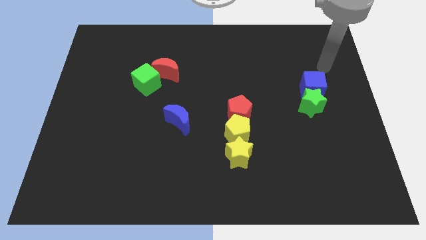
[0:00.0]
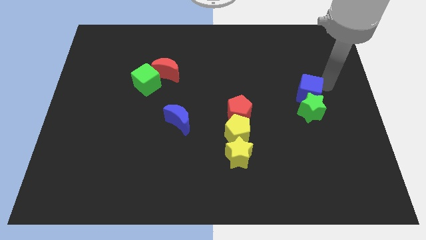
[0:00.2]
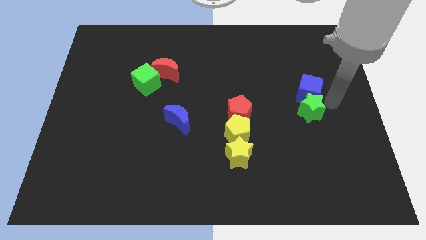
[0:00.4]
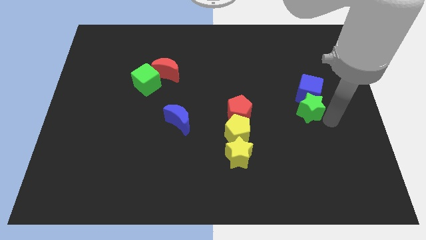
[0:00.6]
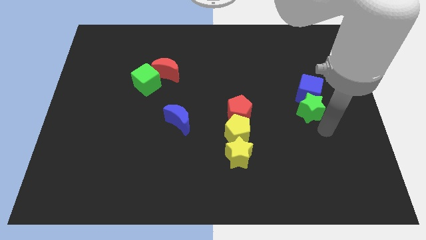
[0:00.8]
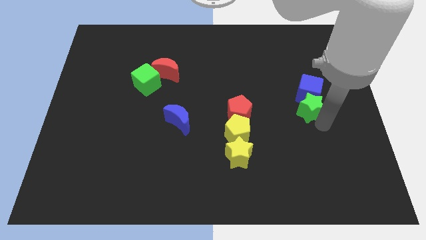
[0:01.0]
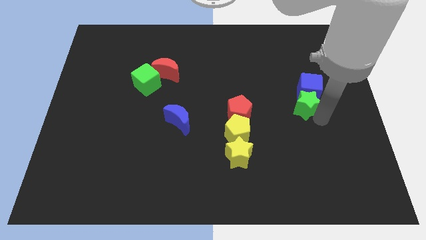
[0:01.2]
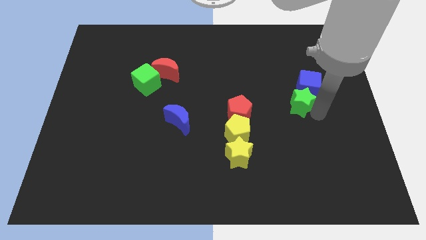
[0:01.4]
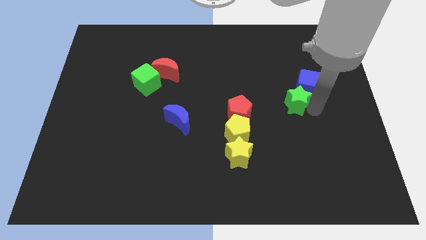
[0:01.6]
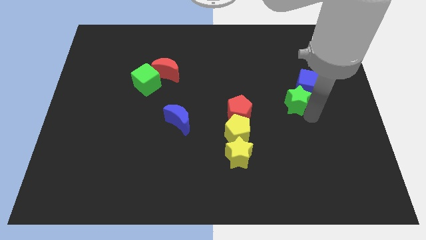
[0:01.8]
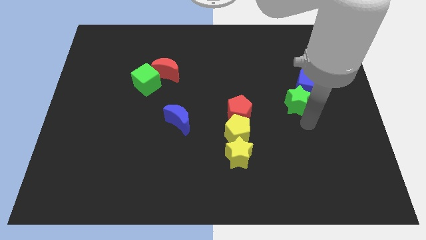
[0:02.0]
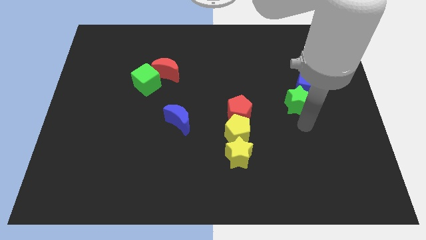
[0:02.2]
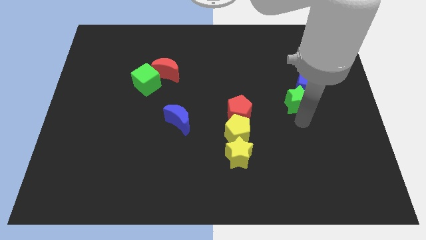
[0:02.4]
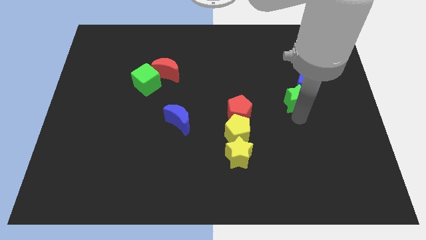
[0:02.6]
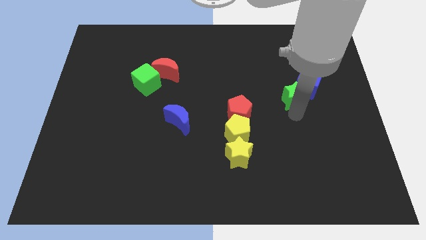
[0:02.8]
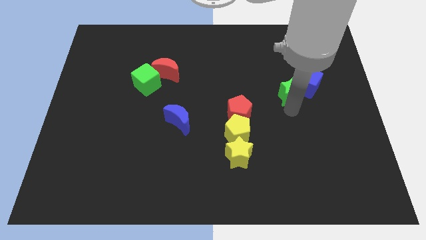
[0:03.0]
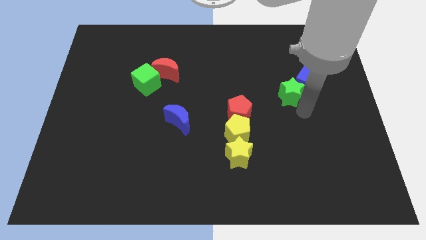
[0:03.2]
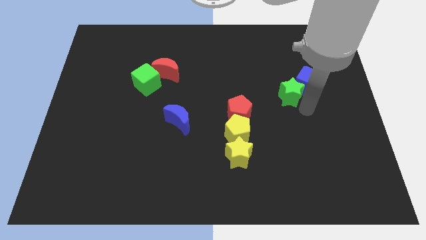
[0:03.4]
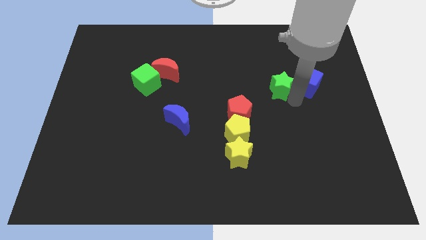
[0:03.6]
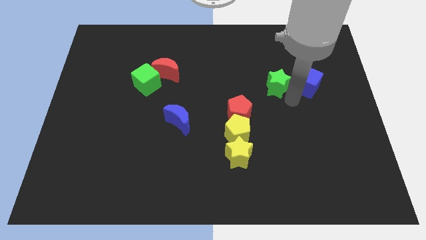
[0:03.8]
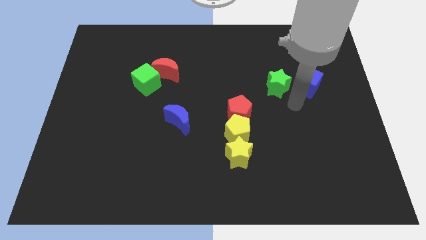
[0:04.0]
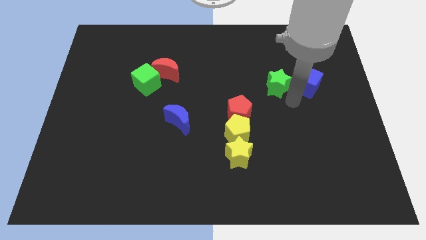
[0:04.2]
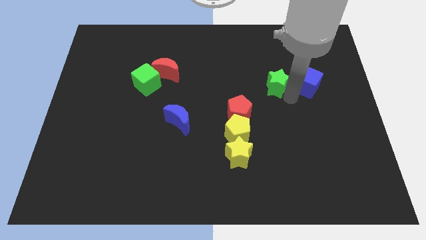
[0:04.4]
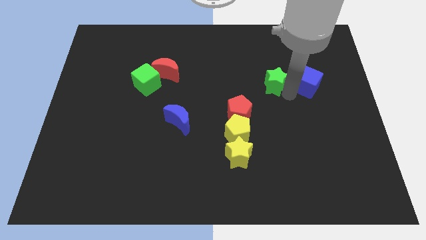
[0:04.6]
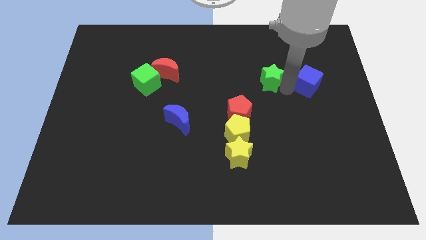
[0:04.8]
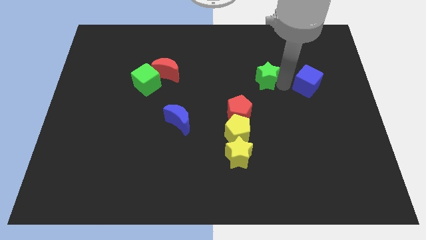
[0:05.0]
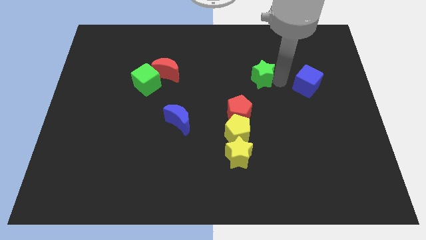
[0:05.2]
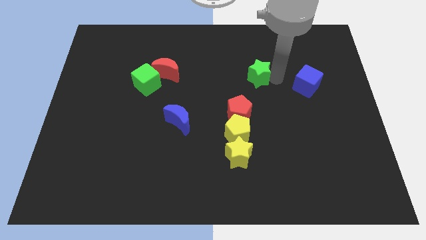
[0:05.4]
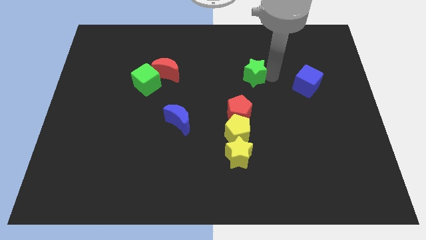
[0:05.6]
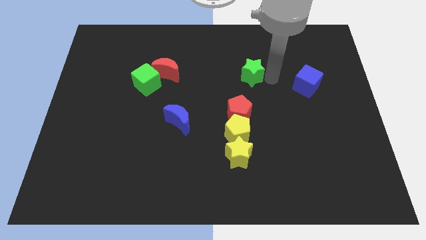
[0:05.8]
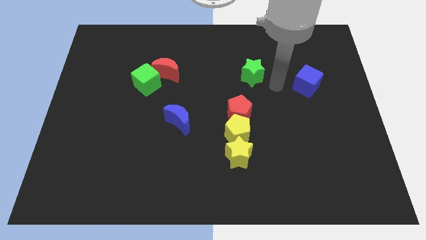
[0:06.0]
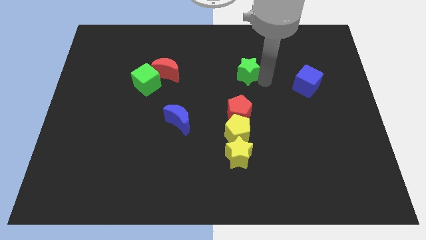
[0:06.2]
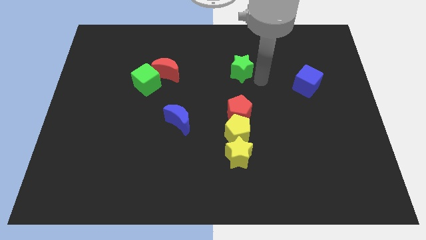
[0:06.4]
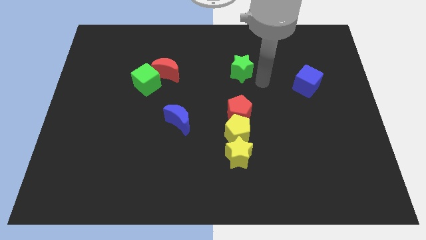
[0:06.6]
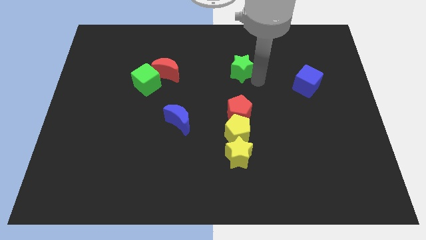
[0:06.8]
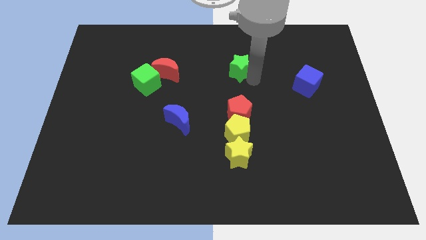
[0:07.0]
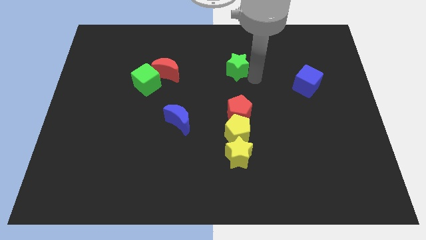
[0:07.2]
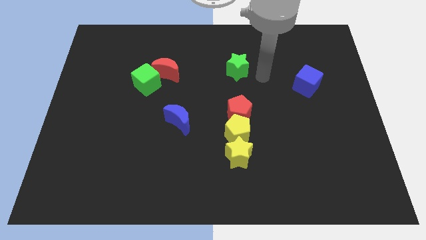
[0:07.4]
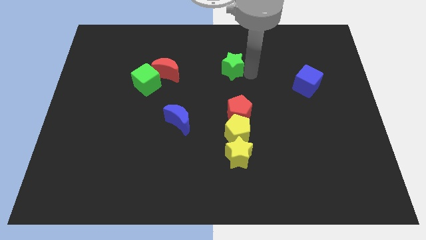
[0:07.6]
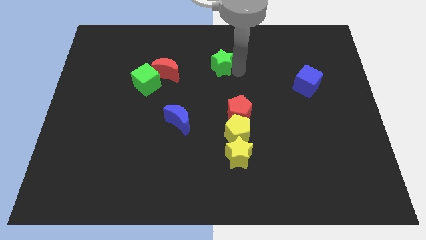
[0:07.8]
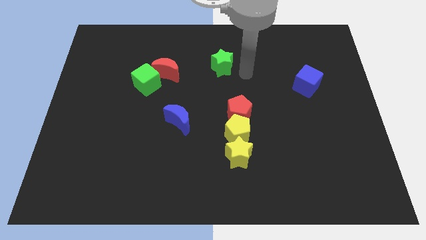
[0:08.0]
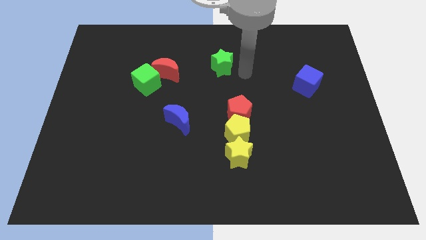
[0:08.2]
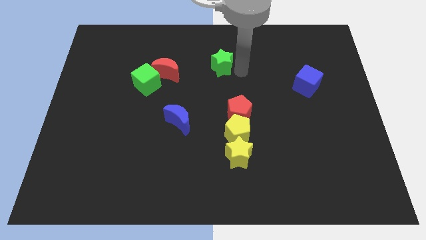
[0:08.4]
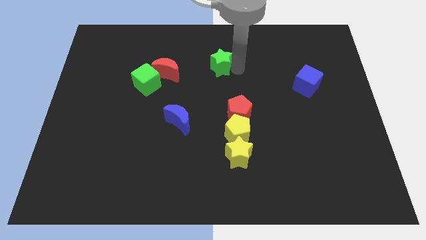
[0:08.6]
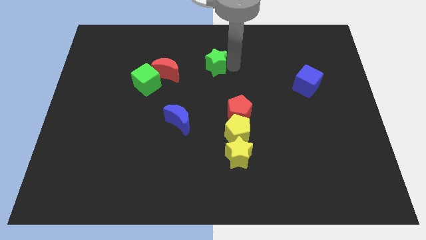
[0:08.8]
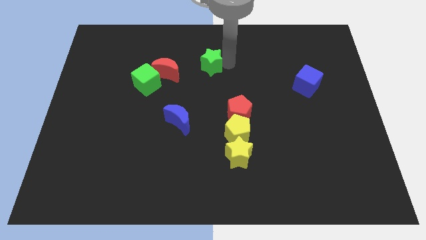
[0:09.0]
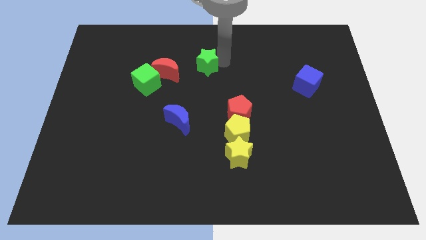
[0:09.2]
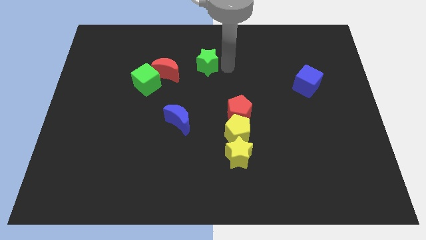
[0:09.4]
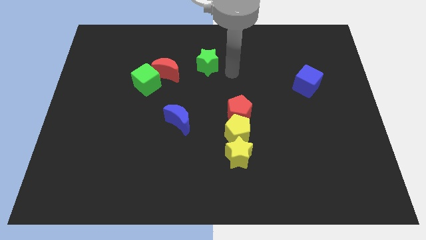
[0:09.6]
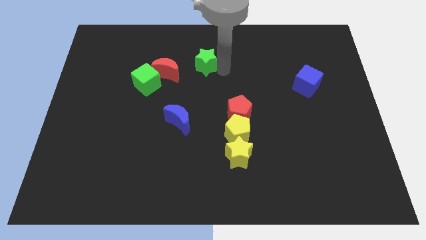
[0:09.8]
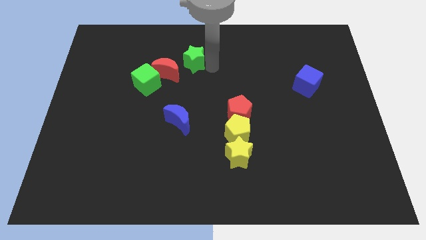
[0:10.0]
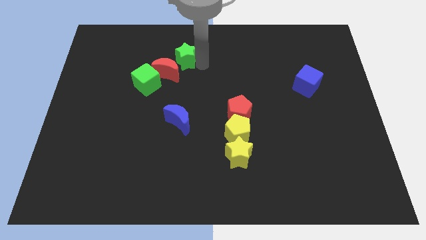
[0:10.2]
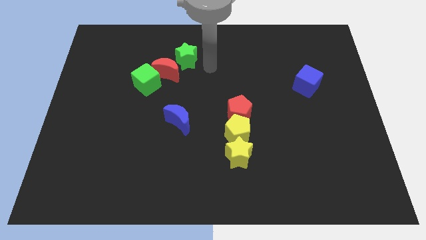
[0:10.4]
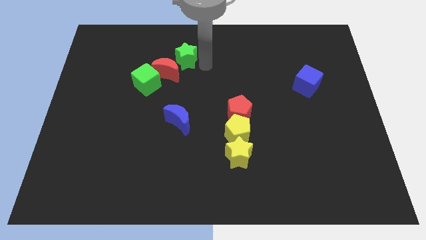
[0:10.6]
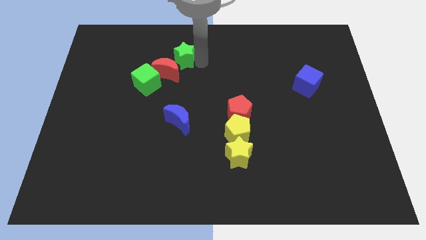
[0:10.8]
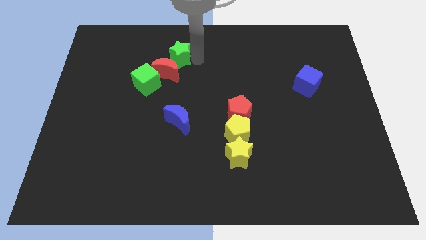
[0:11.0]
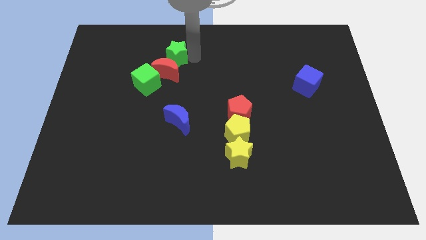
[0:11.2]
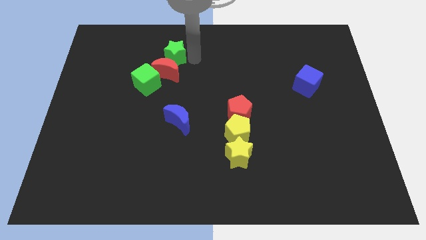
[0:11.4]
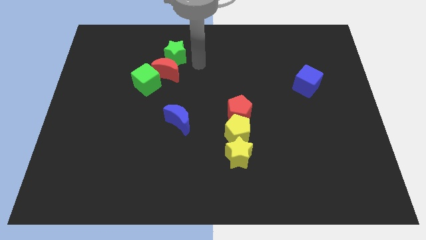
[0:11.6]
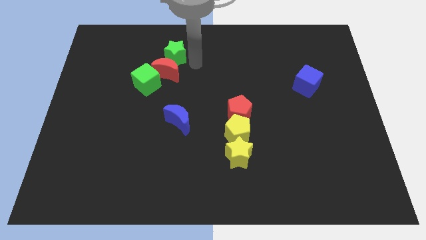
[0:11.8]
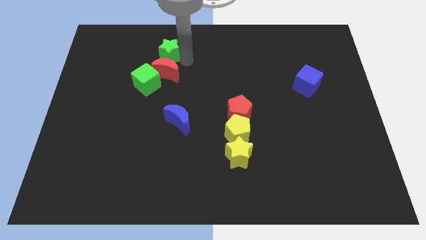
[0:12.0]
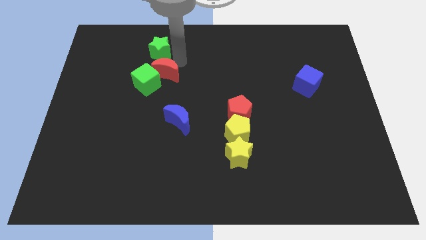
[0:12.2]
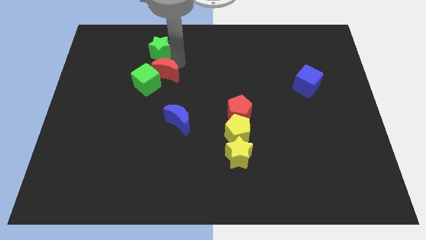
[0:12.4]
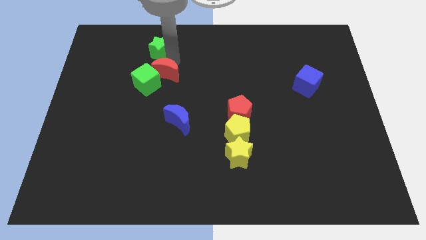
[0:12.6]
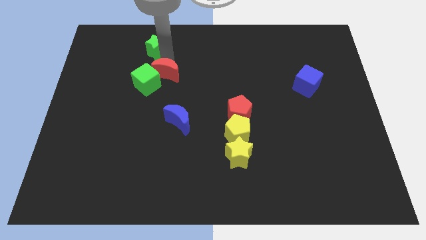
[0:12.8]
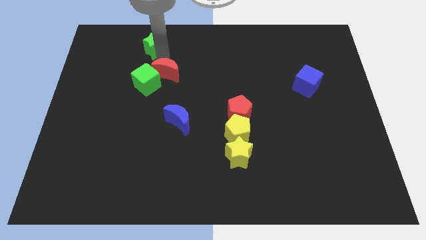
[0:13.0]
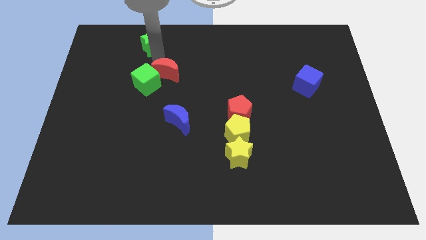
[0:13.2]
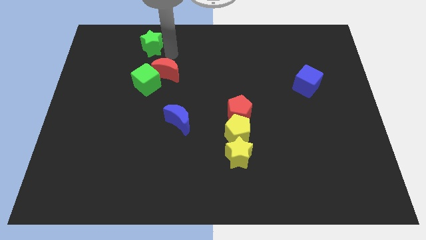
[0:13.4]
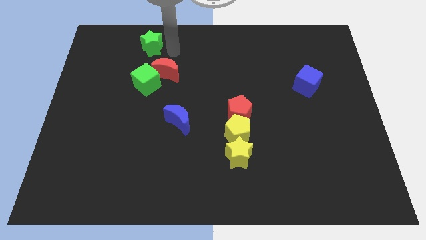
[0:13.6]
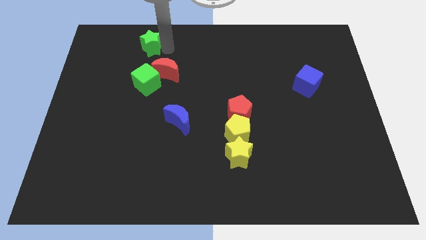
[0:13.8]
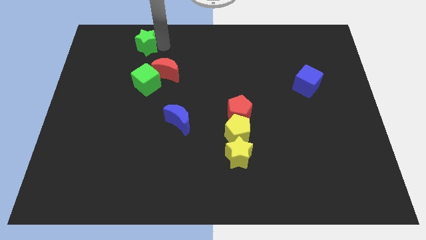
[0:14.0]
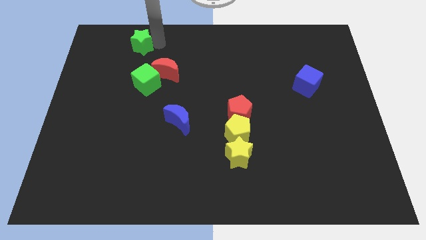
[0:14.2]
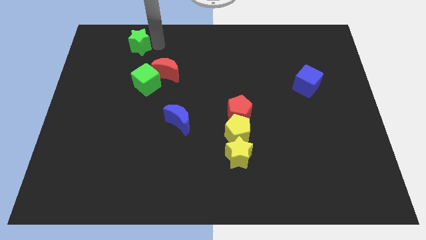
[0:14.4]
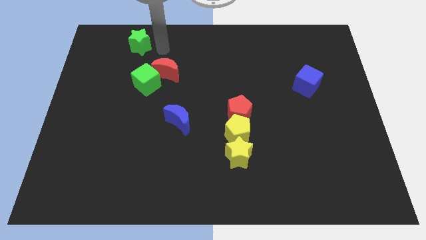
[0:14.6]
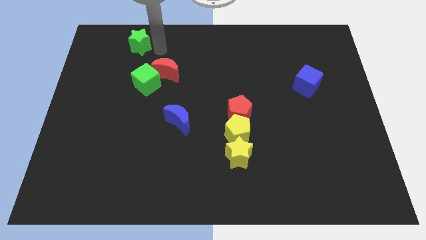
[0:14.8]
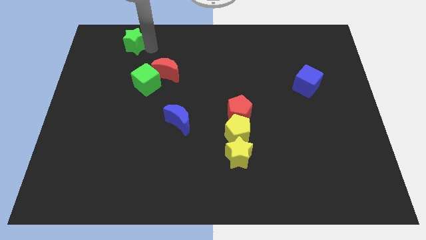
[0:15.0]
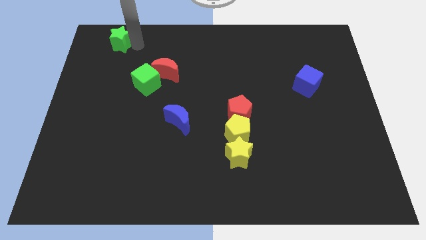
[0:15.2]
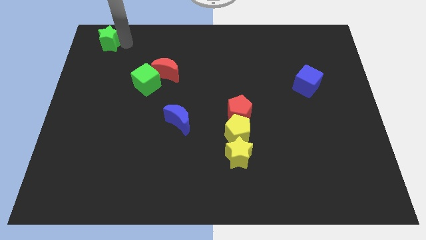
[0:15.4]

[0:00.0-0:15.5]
move the green star to the top left
